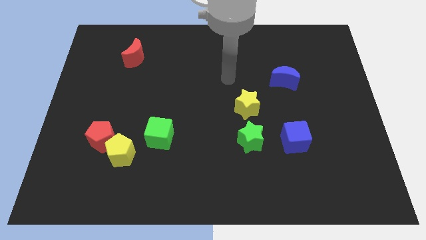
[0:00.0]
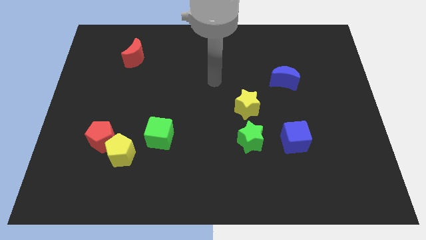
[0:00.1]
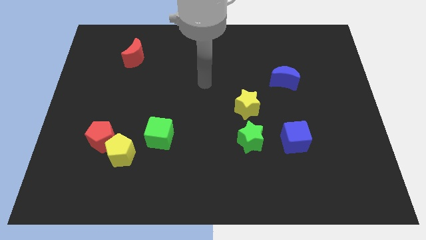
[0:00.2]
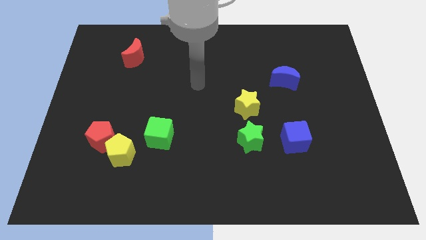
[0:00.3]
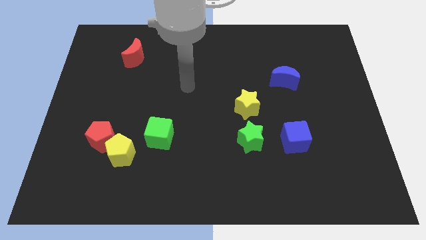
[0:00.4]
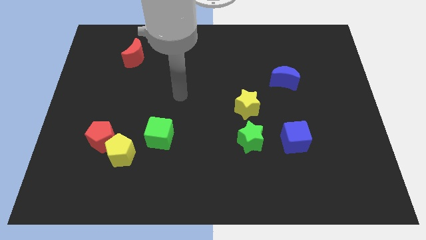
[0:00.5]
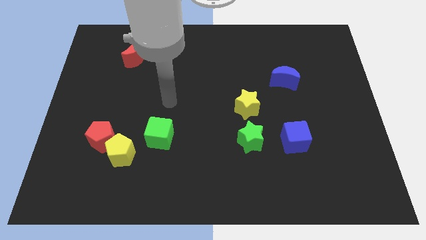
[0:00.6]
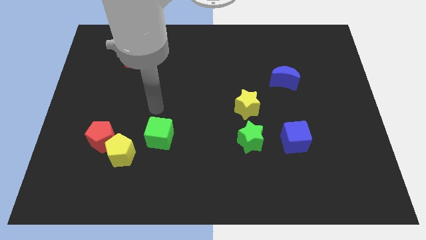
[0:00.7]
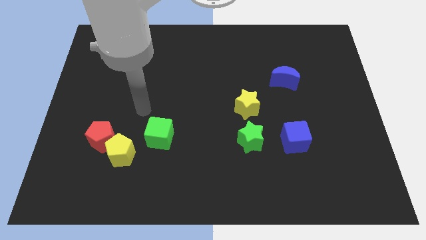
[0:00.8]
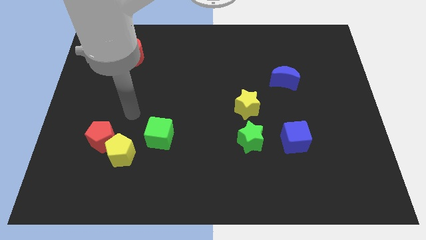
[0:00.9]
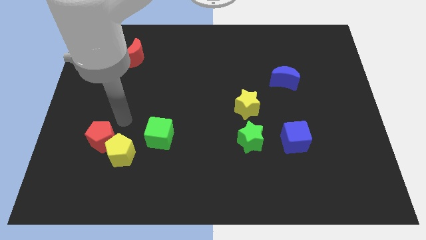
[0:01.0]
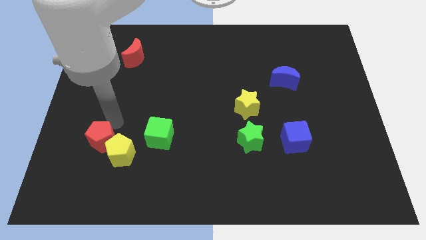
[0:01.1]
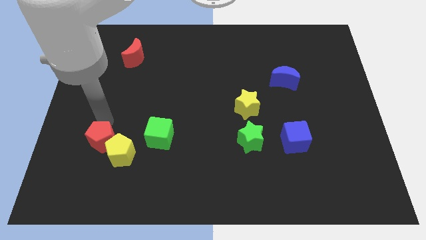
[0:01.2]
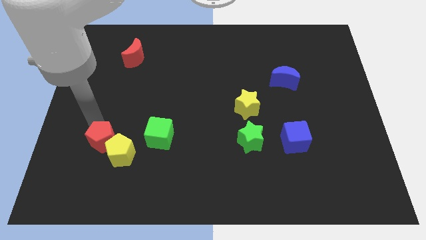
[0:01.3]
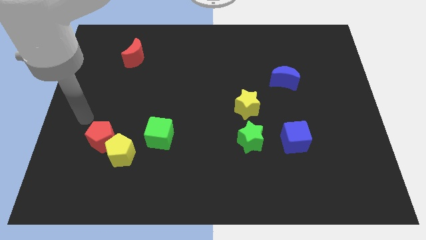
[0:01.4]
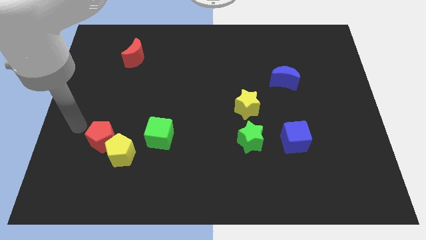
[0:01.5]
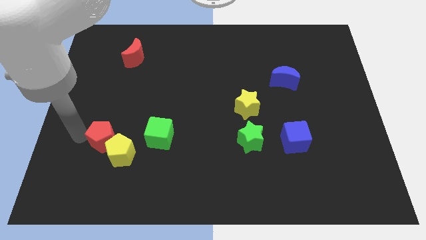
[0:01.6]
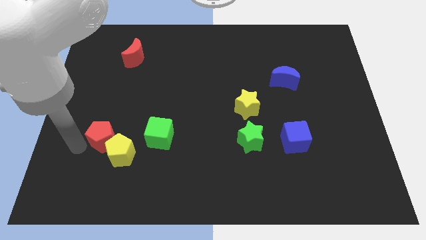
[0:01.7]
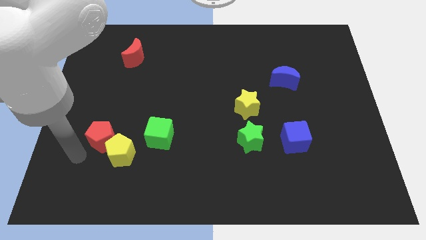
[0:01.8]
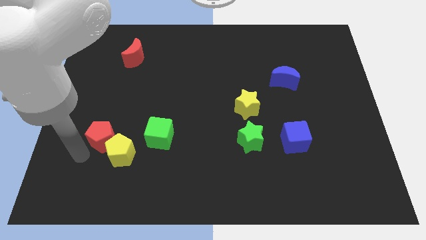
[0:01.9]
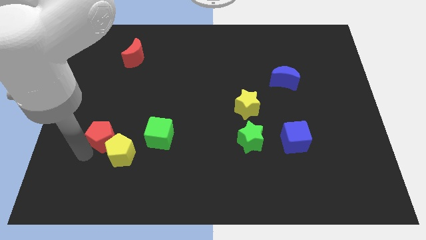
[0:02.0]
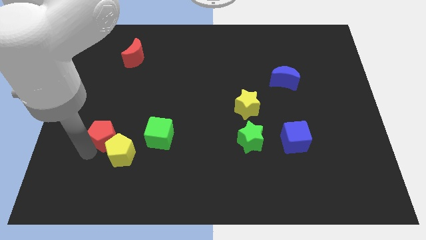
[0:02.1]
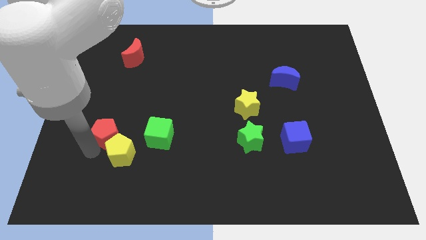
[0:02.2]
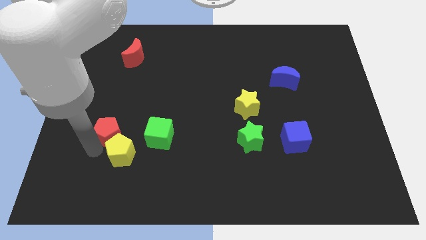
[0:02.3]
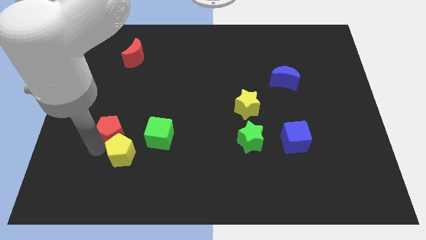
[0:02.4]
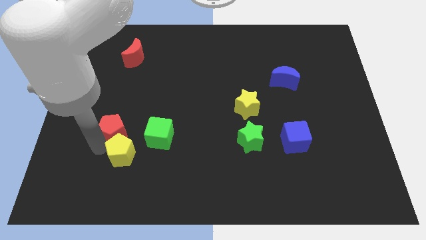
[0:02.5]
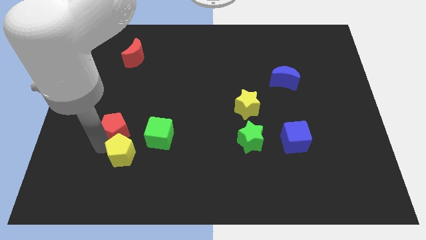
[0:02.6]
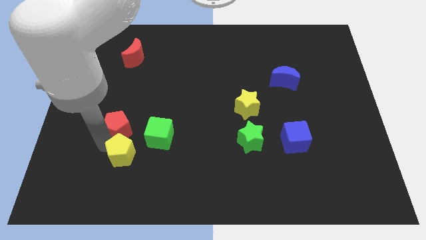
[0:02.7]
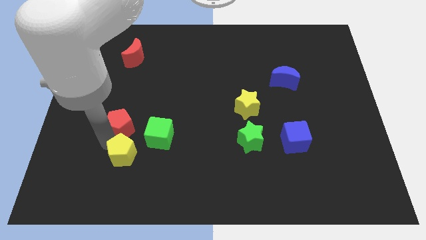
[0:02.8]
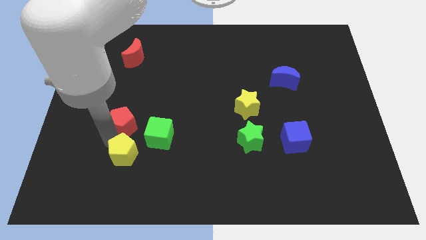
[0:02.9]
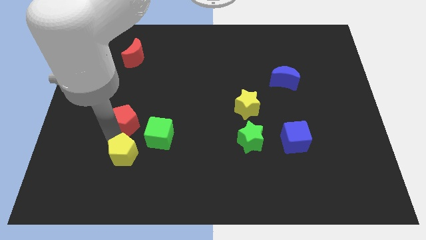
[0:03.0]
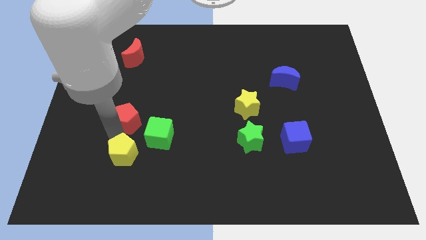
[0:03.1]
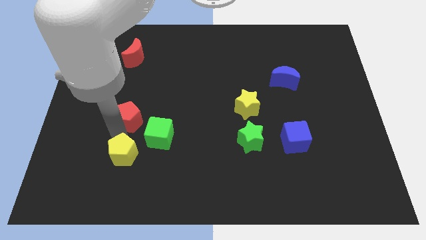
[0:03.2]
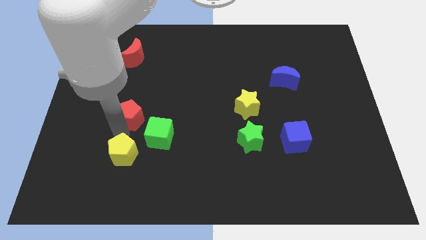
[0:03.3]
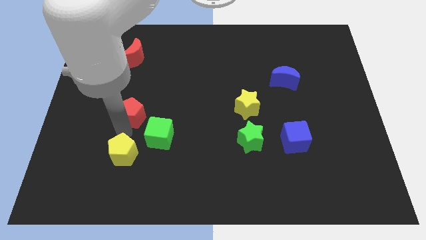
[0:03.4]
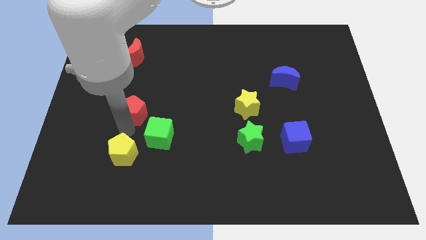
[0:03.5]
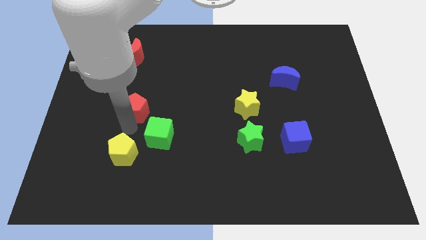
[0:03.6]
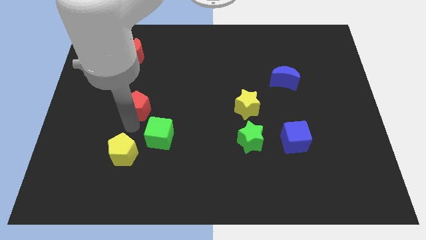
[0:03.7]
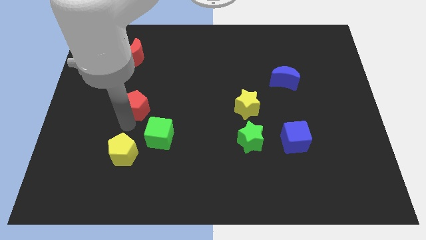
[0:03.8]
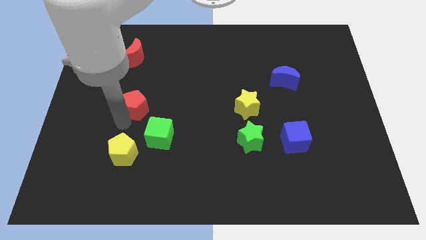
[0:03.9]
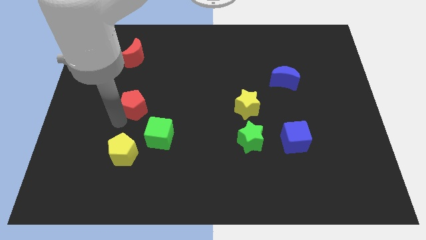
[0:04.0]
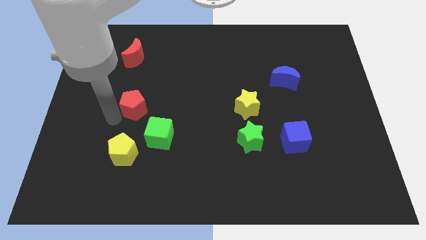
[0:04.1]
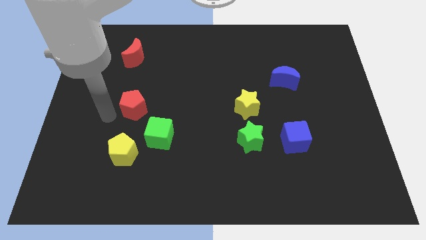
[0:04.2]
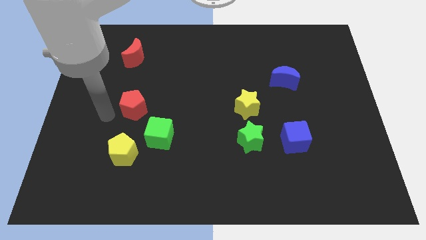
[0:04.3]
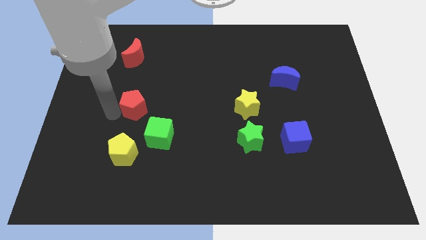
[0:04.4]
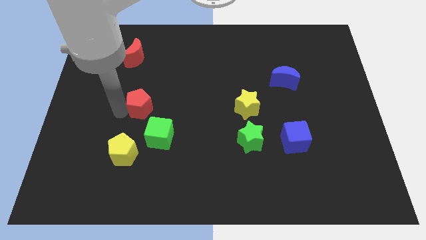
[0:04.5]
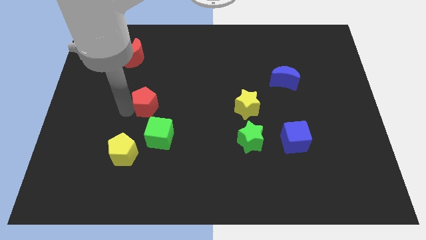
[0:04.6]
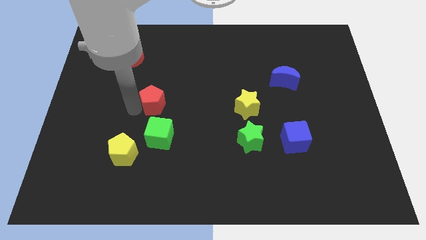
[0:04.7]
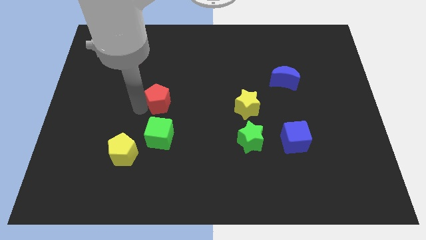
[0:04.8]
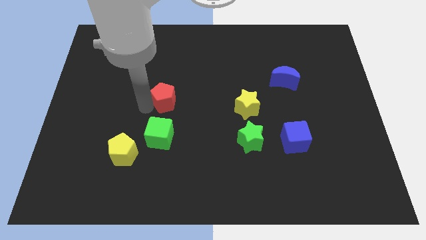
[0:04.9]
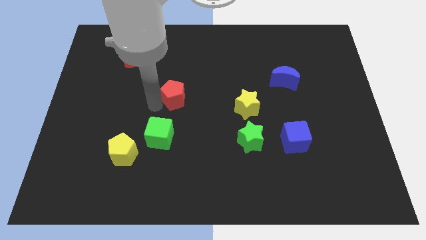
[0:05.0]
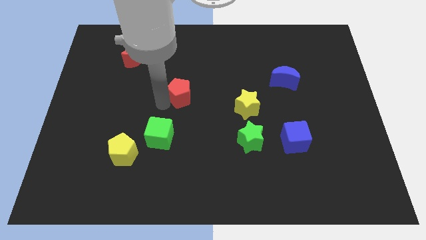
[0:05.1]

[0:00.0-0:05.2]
push the red pentagon upwards and then to the right

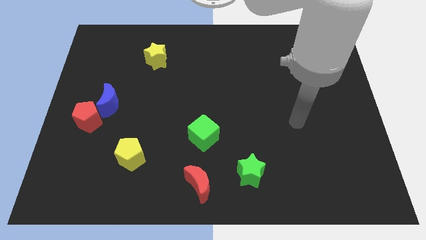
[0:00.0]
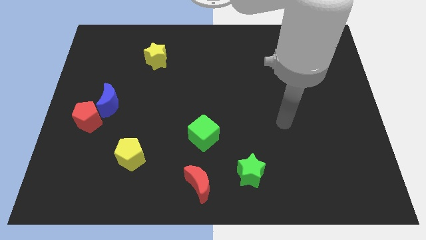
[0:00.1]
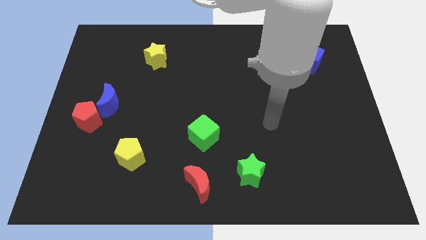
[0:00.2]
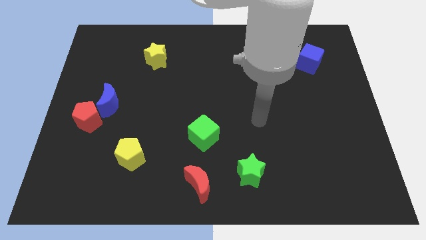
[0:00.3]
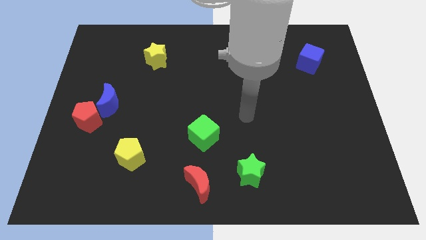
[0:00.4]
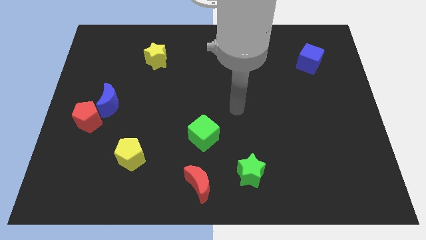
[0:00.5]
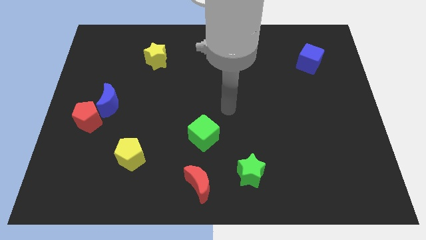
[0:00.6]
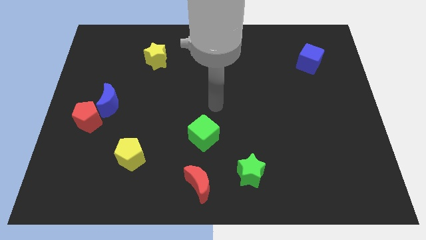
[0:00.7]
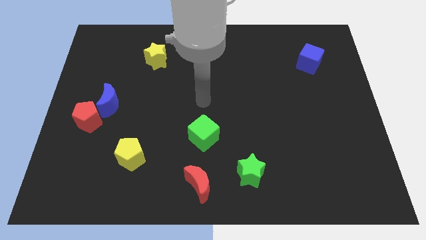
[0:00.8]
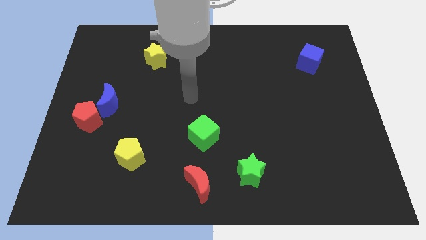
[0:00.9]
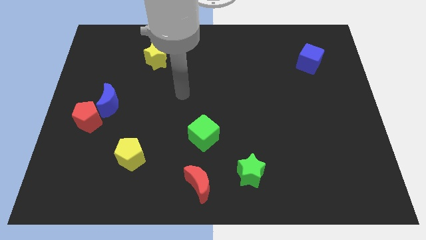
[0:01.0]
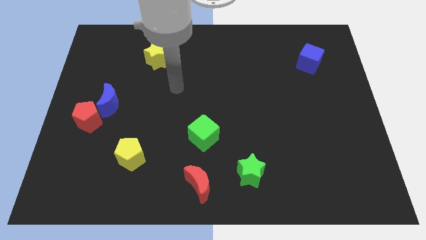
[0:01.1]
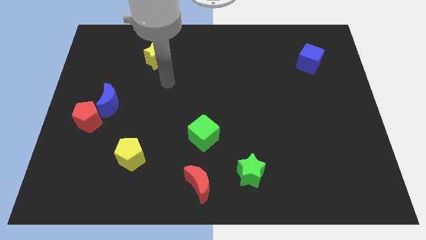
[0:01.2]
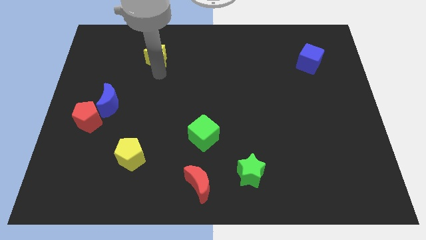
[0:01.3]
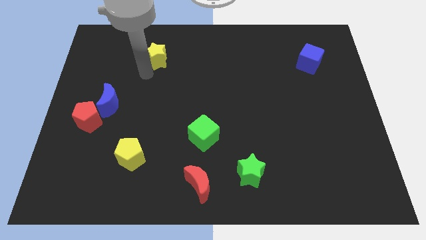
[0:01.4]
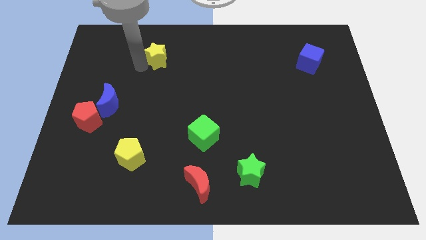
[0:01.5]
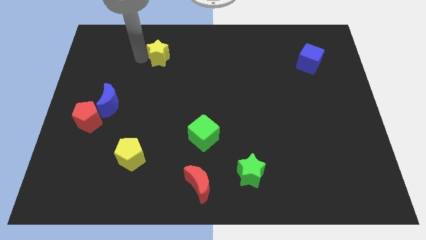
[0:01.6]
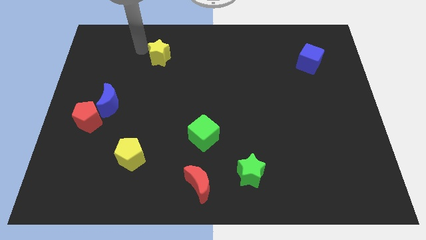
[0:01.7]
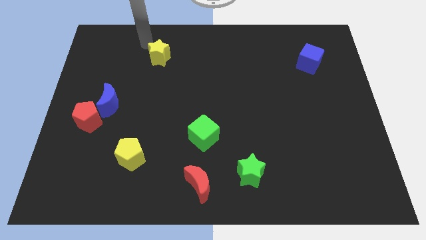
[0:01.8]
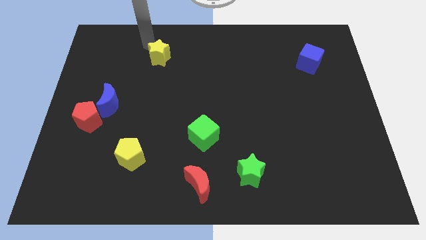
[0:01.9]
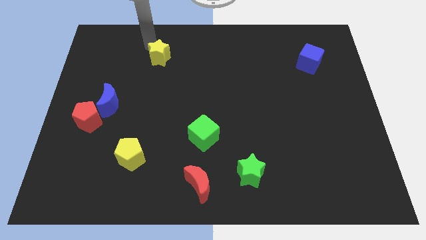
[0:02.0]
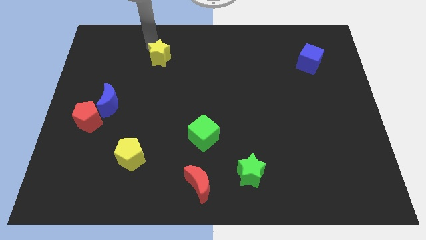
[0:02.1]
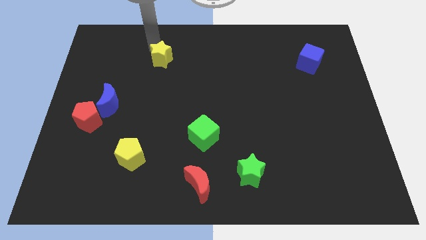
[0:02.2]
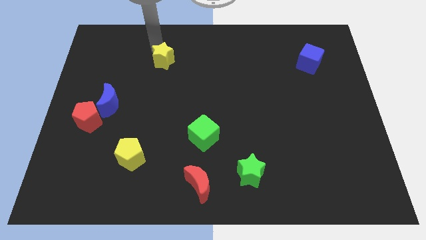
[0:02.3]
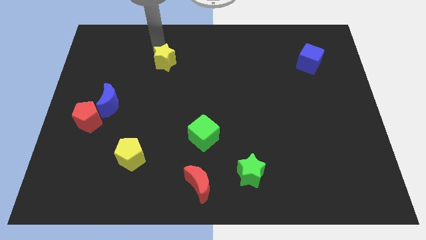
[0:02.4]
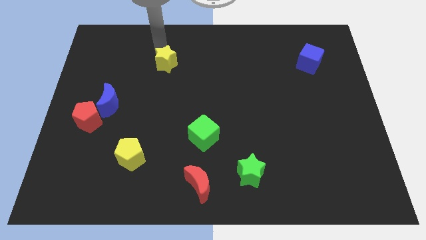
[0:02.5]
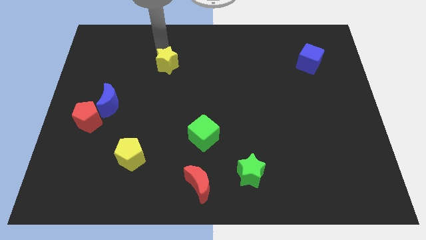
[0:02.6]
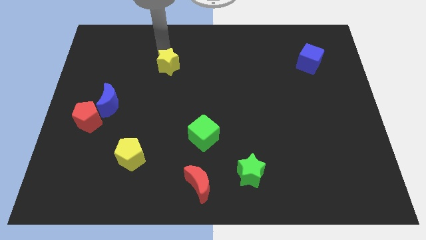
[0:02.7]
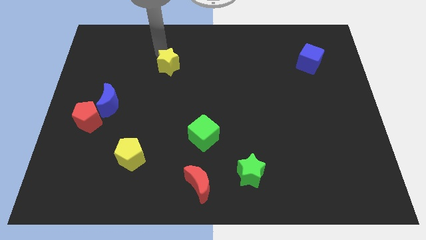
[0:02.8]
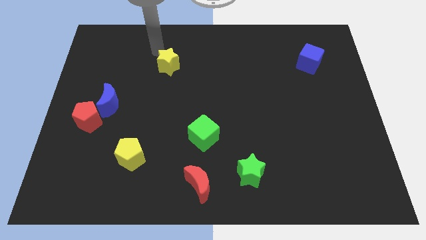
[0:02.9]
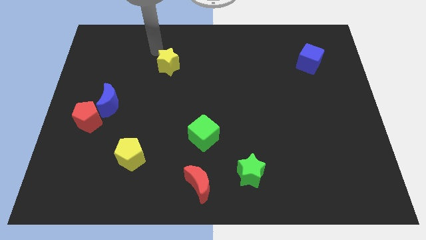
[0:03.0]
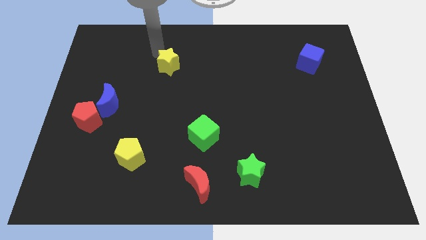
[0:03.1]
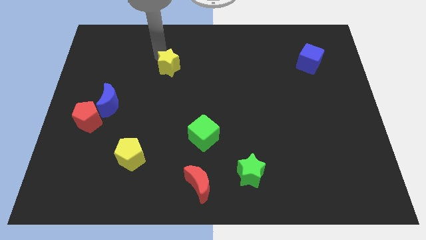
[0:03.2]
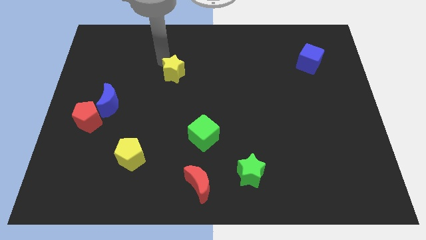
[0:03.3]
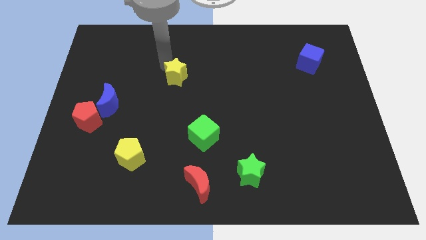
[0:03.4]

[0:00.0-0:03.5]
slide the yellow star a little bit downwards and to the right
